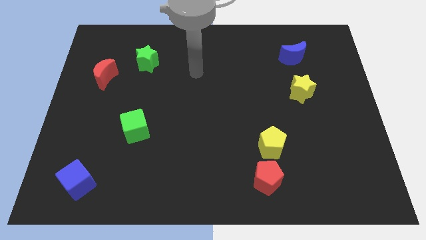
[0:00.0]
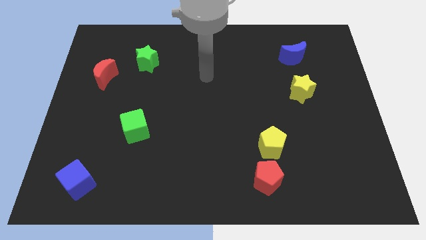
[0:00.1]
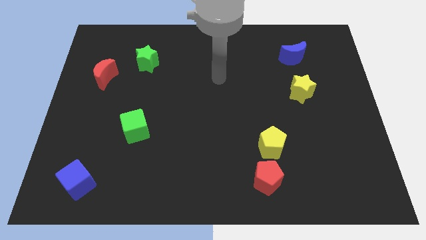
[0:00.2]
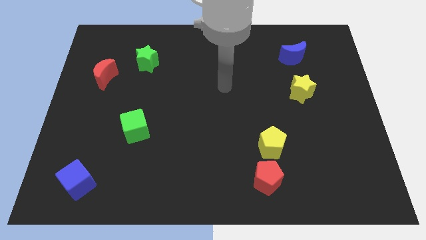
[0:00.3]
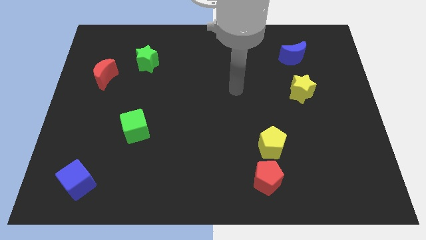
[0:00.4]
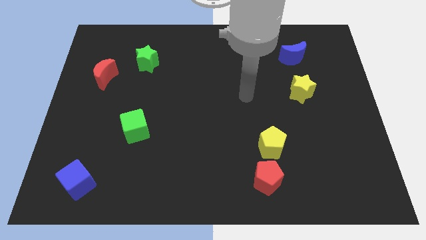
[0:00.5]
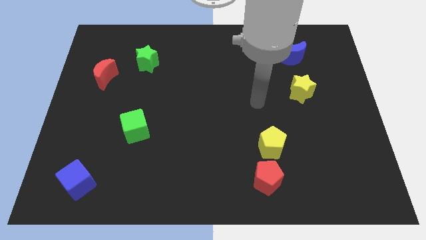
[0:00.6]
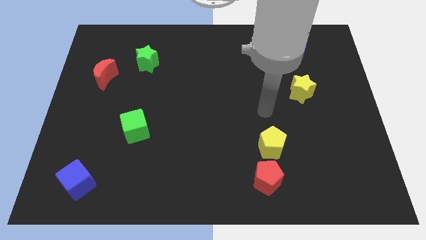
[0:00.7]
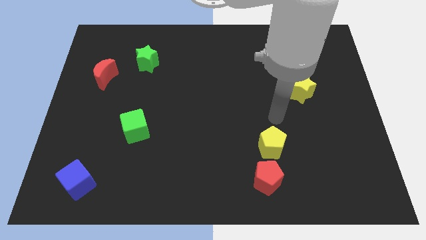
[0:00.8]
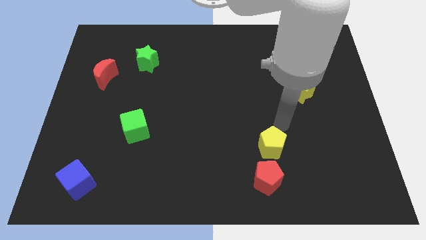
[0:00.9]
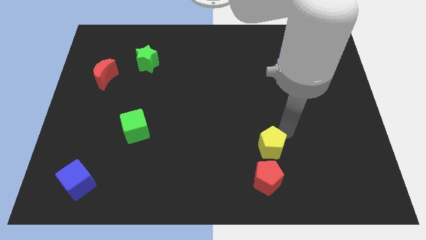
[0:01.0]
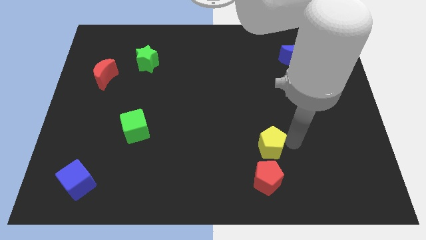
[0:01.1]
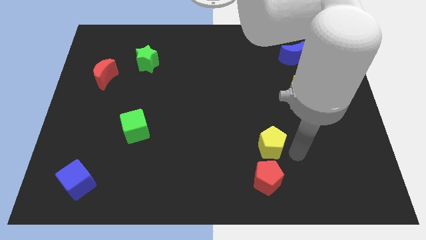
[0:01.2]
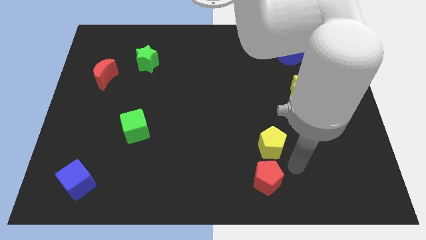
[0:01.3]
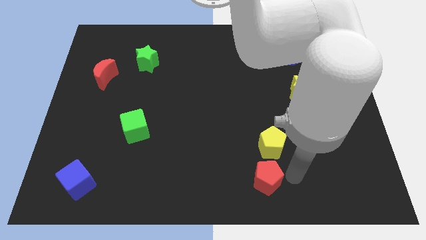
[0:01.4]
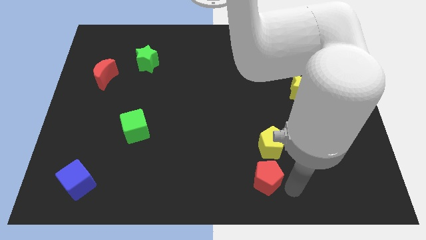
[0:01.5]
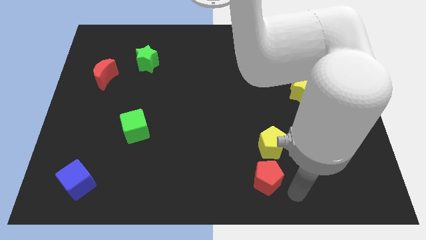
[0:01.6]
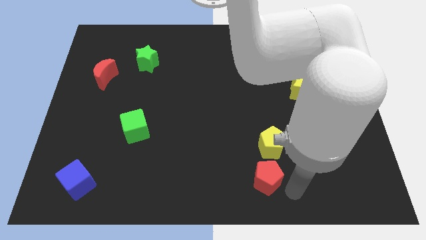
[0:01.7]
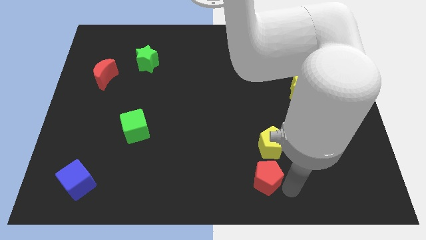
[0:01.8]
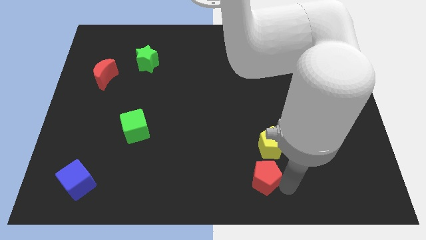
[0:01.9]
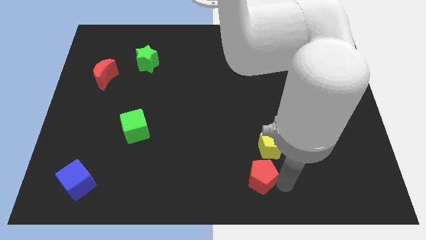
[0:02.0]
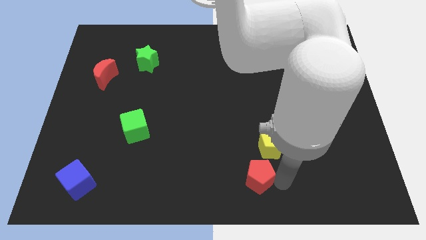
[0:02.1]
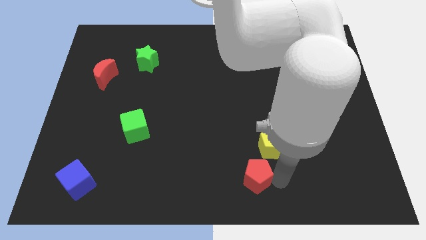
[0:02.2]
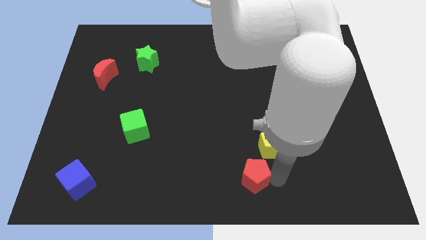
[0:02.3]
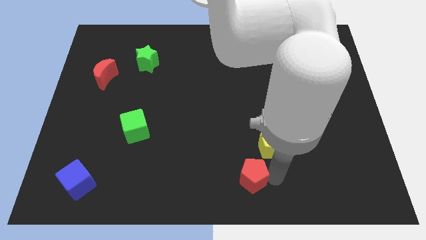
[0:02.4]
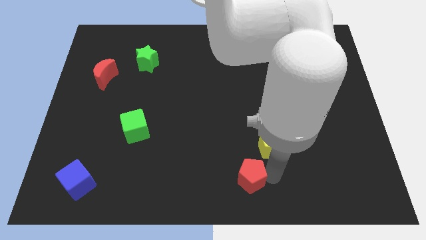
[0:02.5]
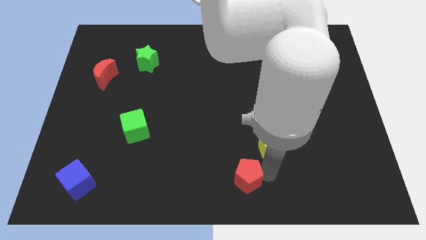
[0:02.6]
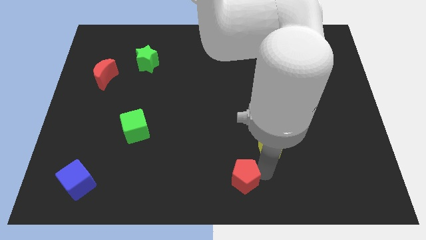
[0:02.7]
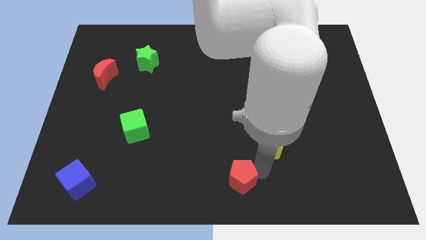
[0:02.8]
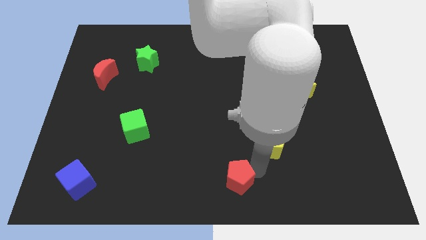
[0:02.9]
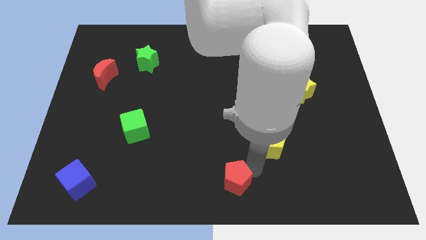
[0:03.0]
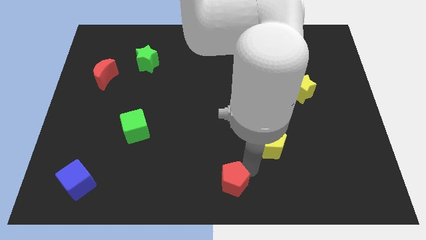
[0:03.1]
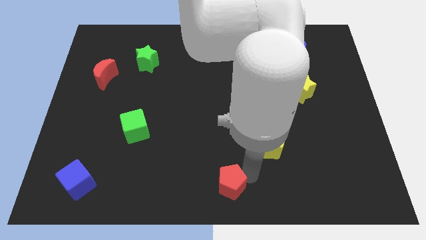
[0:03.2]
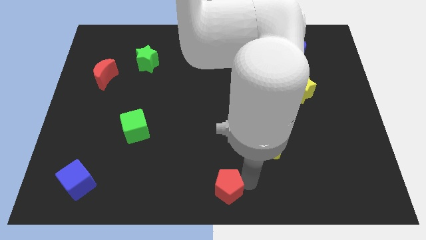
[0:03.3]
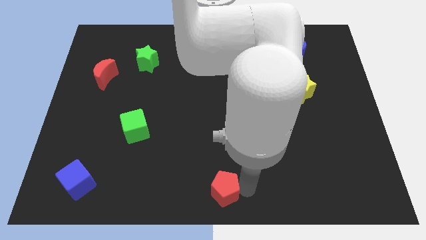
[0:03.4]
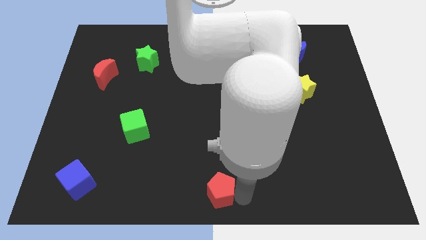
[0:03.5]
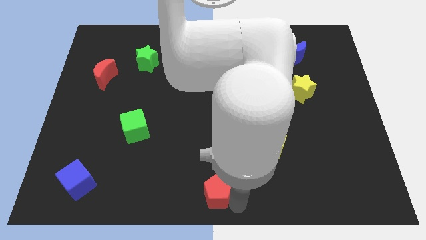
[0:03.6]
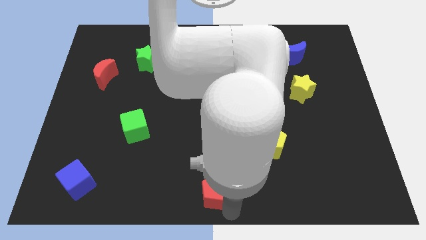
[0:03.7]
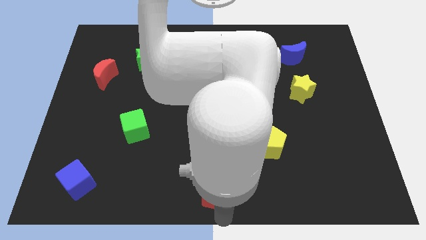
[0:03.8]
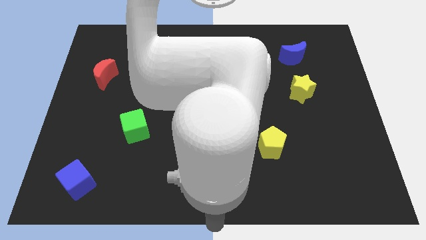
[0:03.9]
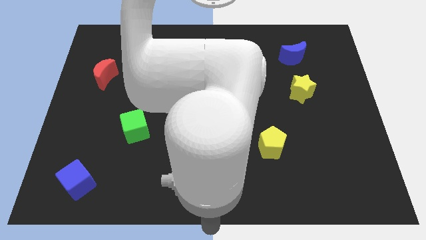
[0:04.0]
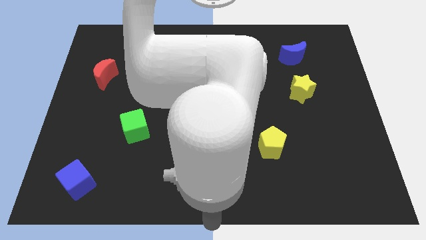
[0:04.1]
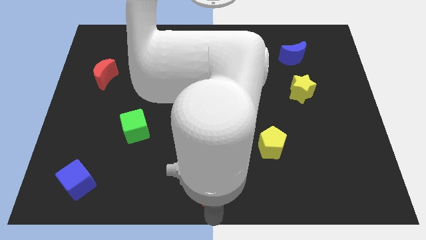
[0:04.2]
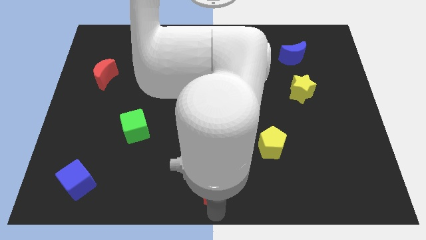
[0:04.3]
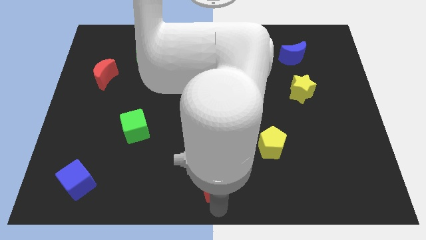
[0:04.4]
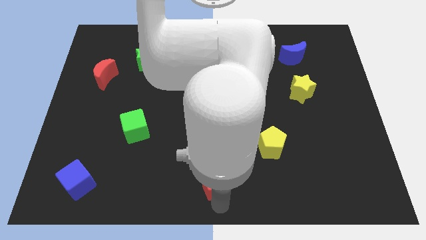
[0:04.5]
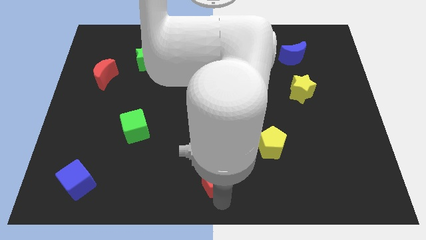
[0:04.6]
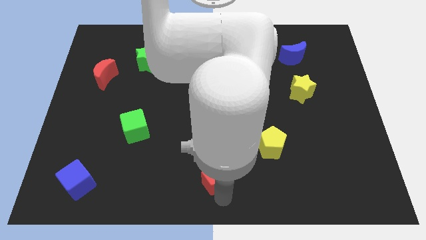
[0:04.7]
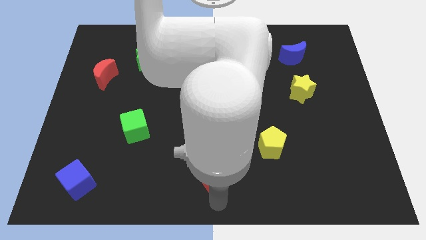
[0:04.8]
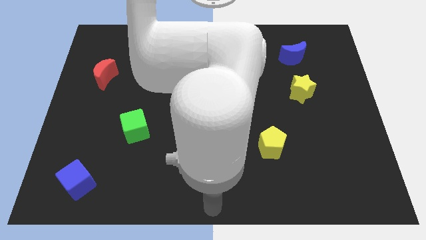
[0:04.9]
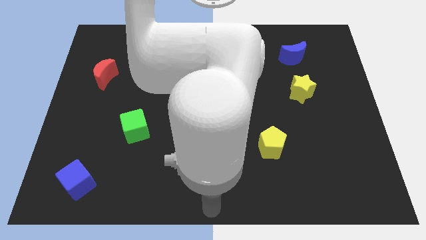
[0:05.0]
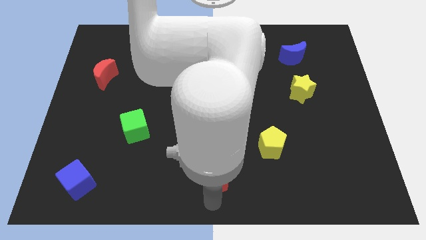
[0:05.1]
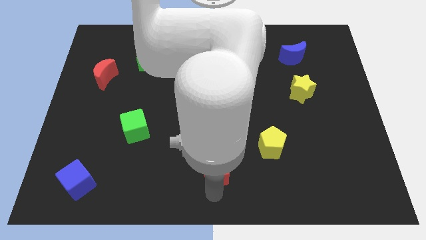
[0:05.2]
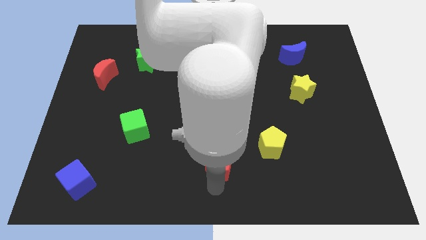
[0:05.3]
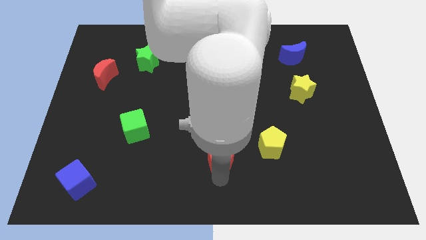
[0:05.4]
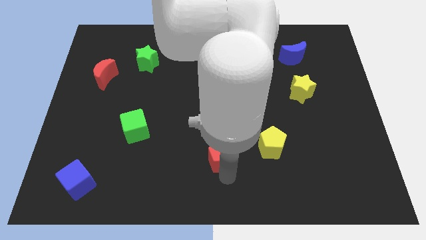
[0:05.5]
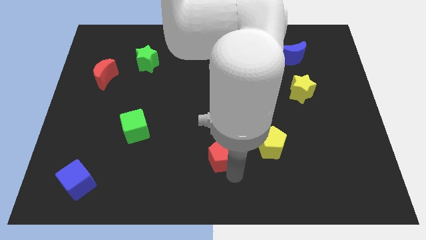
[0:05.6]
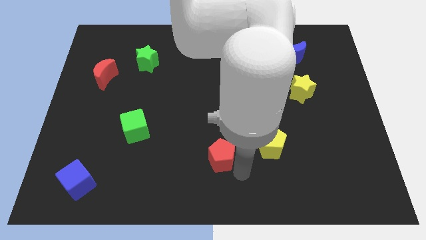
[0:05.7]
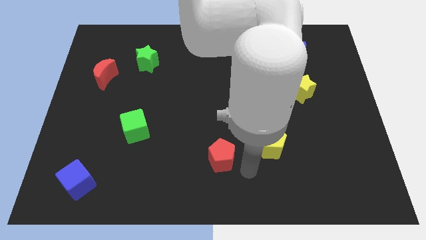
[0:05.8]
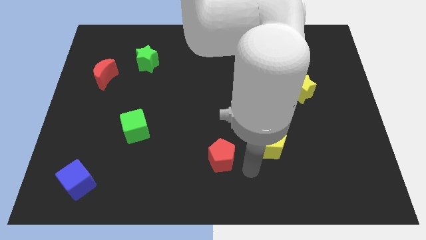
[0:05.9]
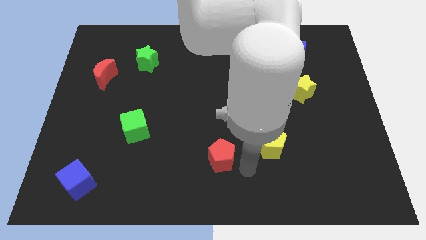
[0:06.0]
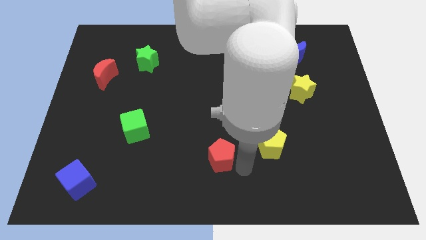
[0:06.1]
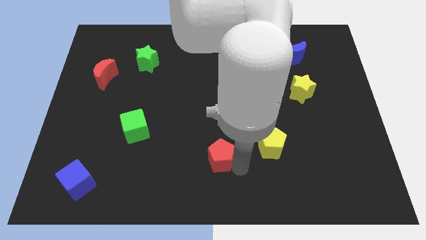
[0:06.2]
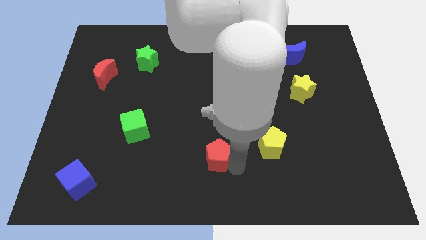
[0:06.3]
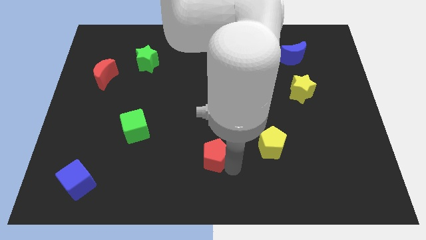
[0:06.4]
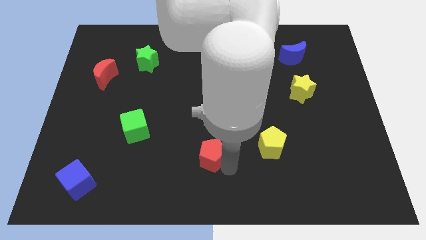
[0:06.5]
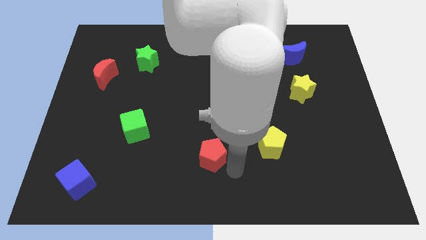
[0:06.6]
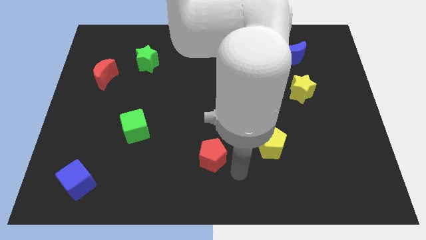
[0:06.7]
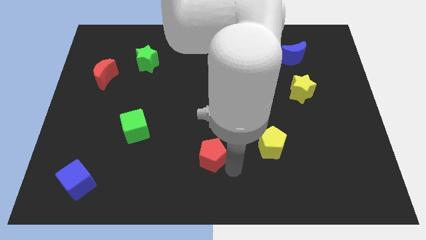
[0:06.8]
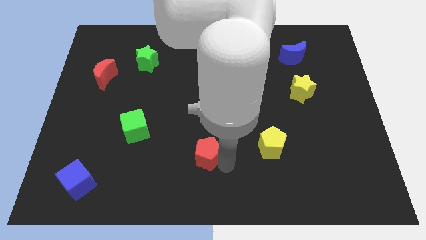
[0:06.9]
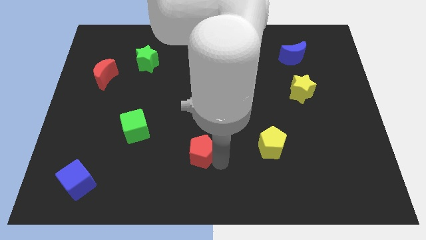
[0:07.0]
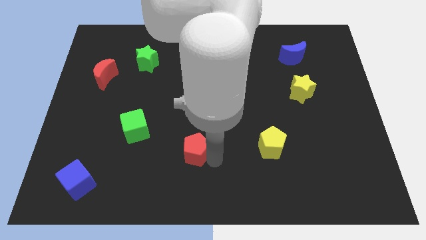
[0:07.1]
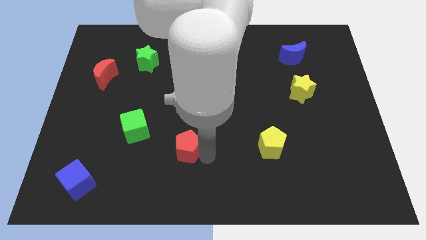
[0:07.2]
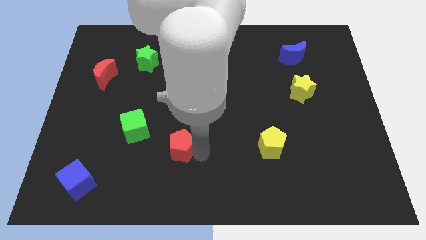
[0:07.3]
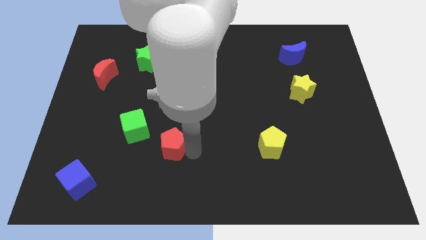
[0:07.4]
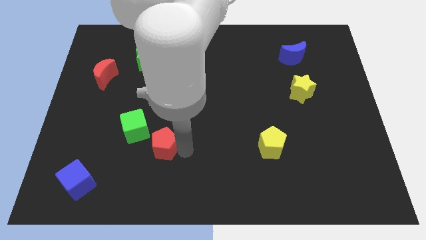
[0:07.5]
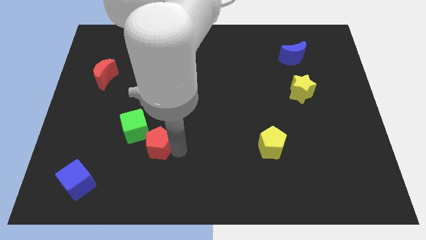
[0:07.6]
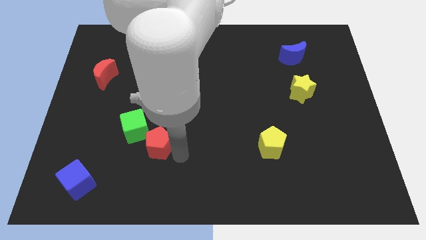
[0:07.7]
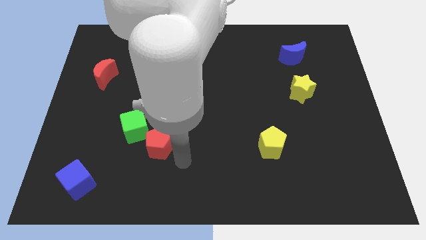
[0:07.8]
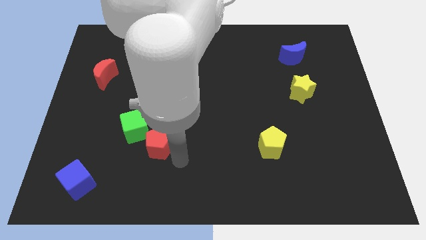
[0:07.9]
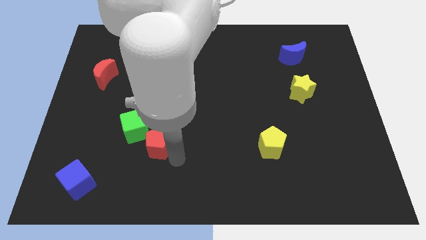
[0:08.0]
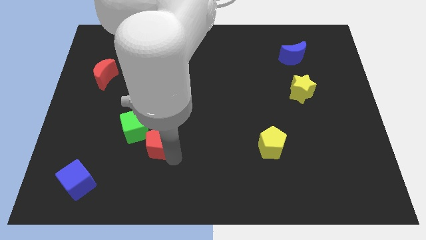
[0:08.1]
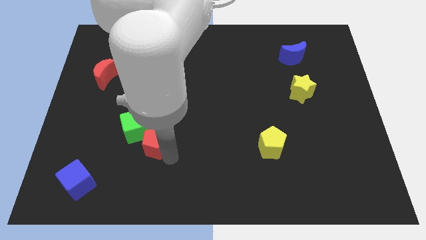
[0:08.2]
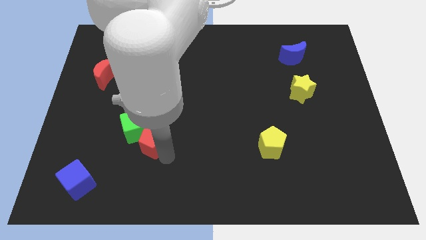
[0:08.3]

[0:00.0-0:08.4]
push the red pentagon close to the green cube
